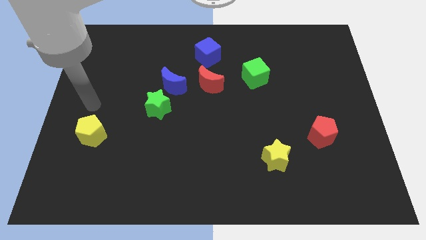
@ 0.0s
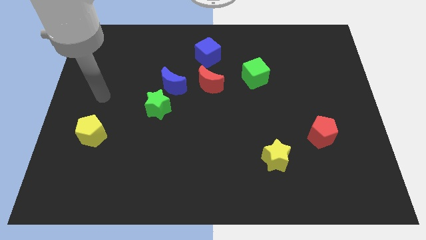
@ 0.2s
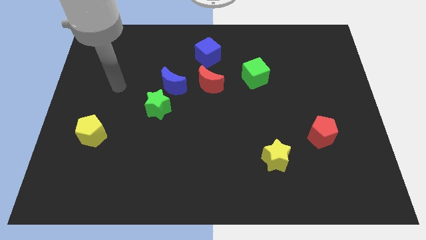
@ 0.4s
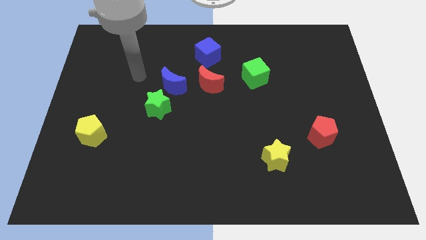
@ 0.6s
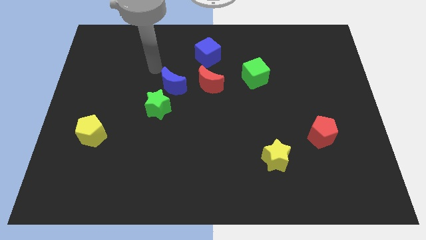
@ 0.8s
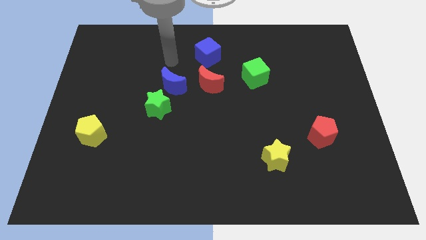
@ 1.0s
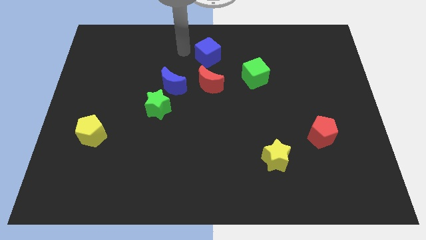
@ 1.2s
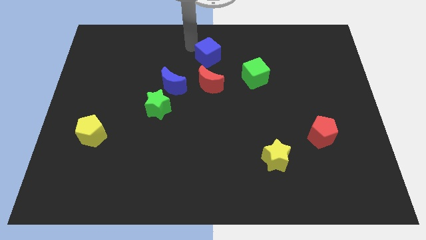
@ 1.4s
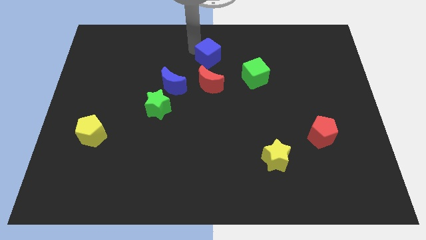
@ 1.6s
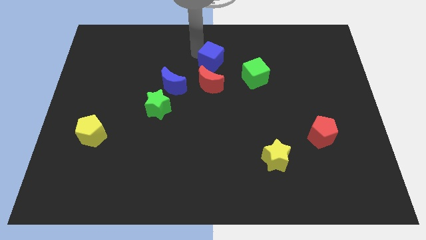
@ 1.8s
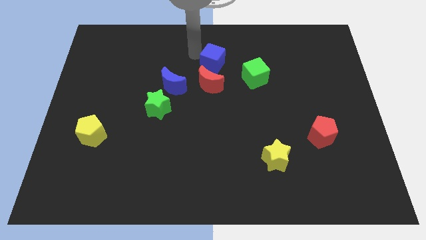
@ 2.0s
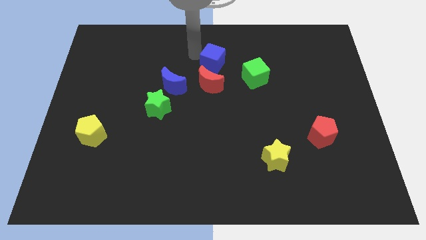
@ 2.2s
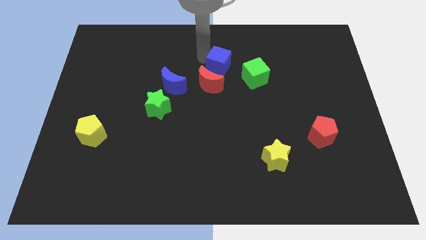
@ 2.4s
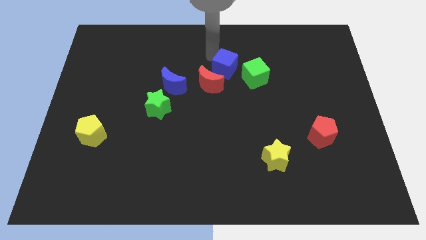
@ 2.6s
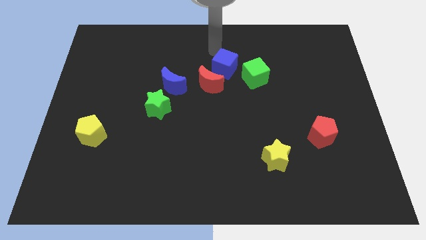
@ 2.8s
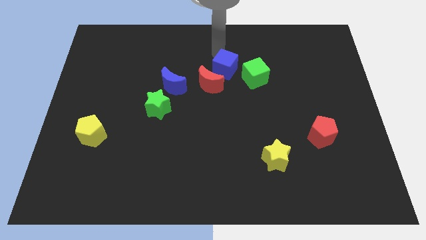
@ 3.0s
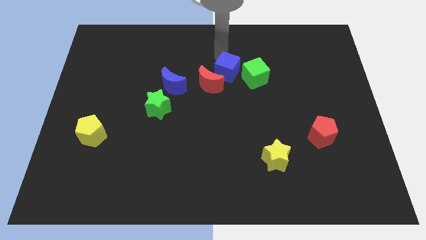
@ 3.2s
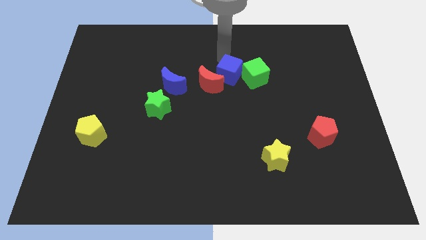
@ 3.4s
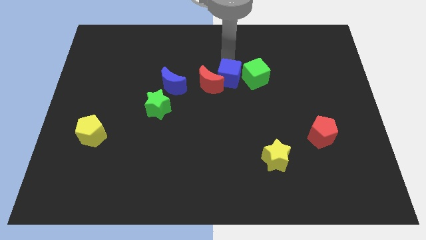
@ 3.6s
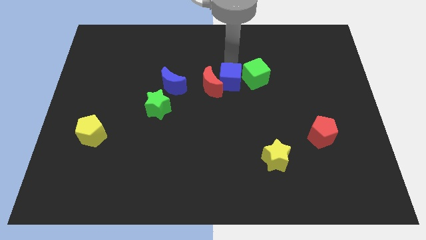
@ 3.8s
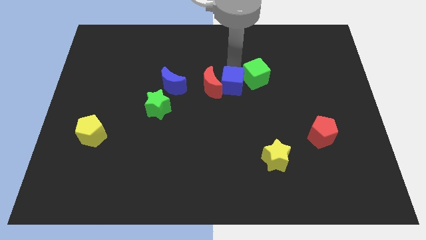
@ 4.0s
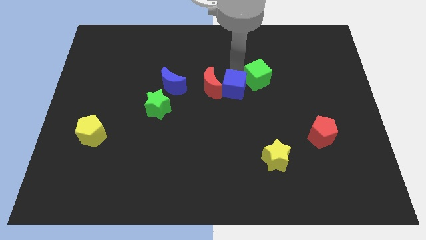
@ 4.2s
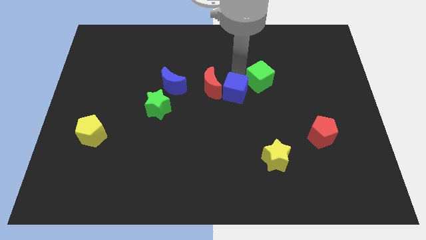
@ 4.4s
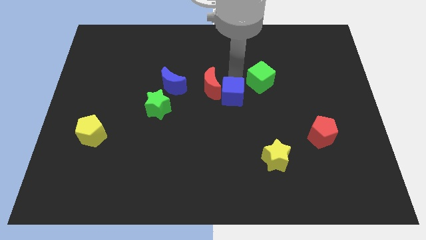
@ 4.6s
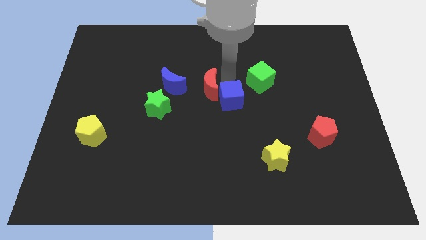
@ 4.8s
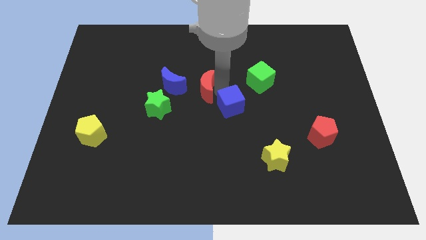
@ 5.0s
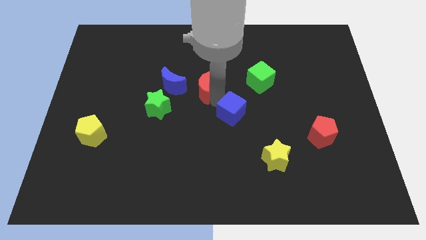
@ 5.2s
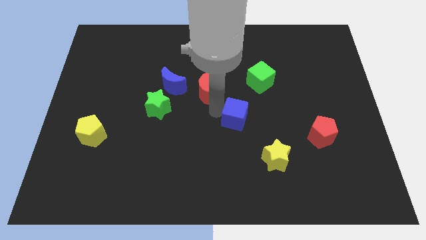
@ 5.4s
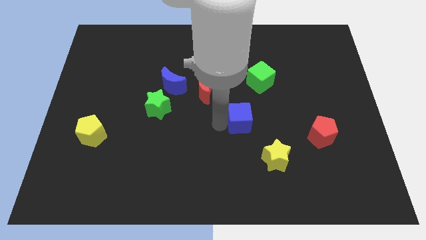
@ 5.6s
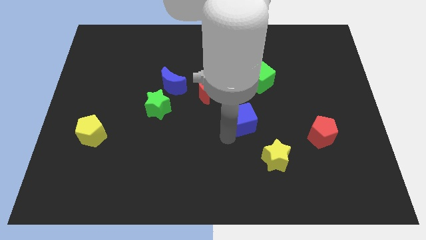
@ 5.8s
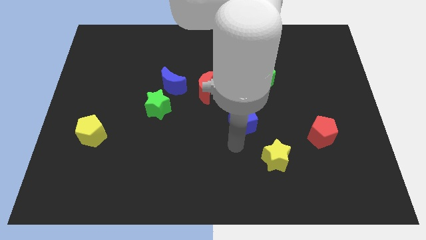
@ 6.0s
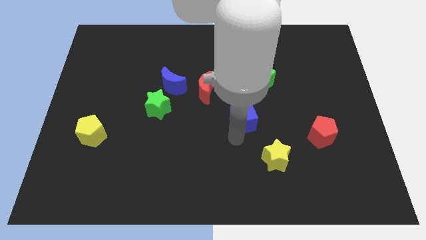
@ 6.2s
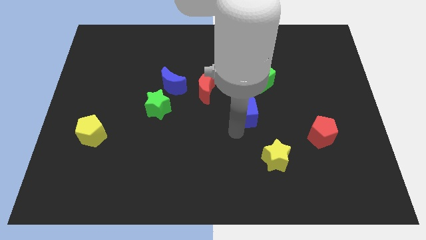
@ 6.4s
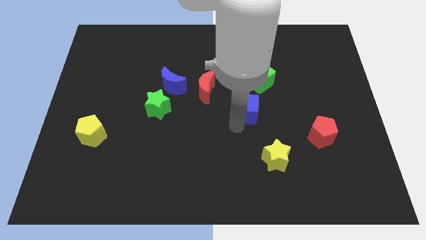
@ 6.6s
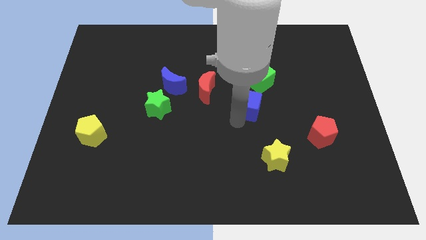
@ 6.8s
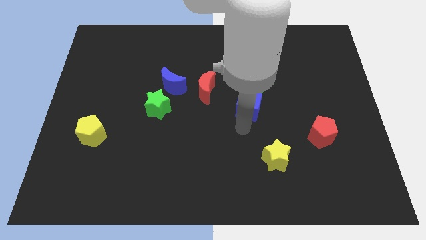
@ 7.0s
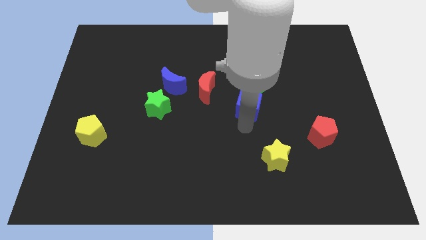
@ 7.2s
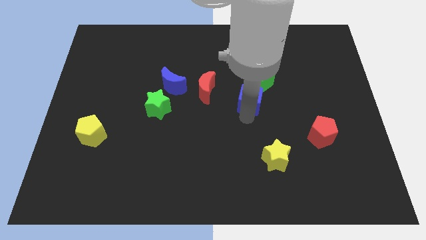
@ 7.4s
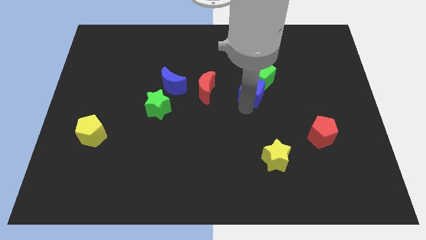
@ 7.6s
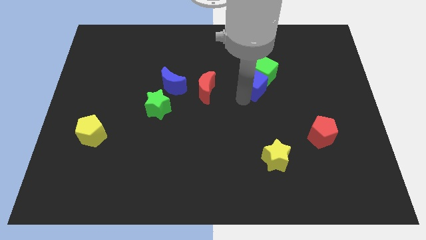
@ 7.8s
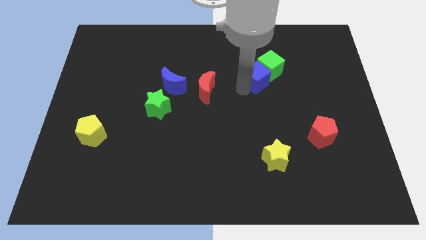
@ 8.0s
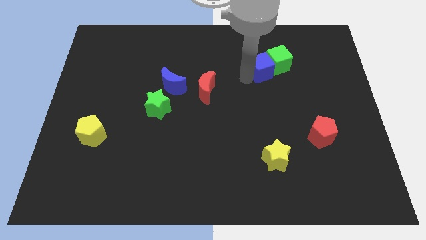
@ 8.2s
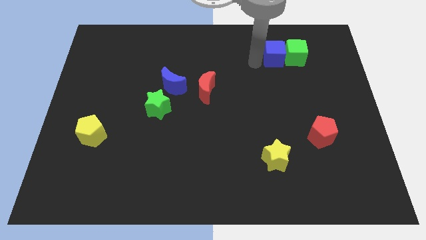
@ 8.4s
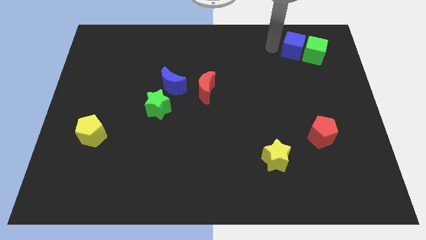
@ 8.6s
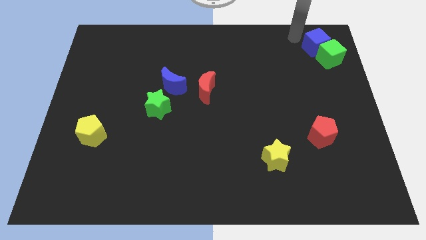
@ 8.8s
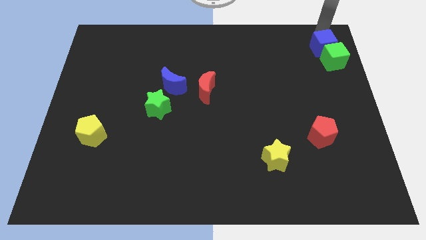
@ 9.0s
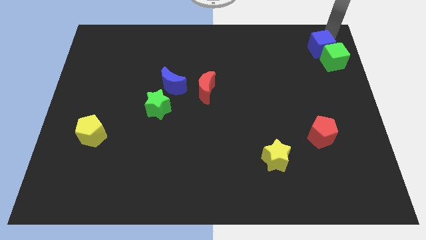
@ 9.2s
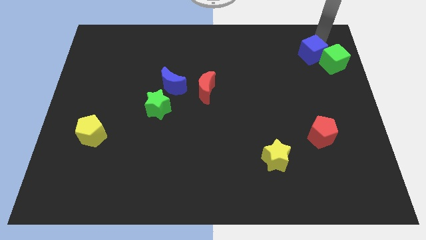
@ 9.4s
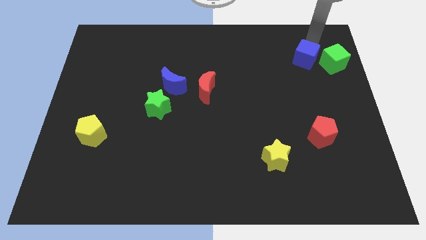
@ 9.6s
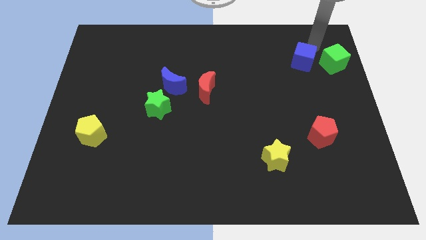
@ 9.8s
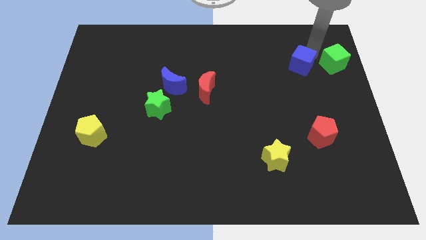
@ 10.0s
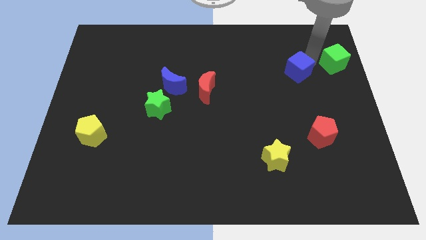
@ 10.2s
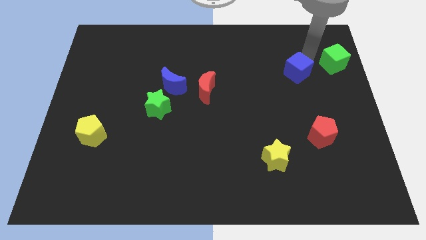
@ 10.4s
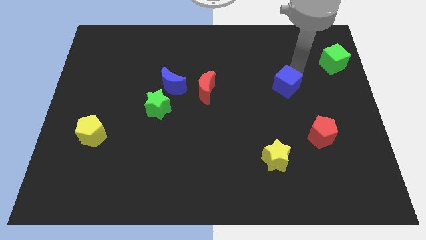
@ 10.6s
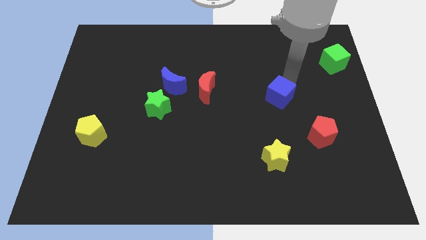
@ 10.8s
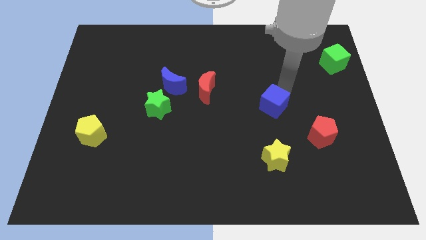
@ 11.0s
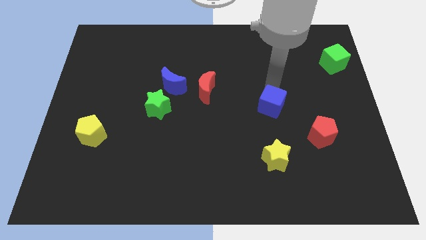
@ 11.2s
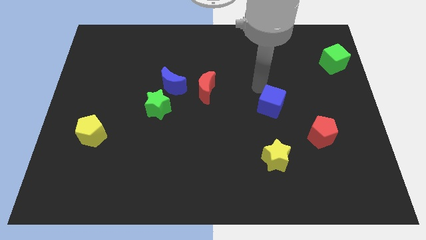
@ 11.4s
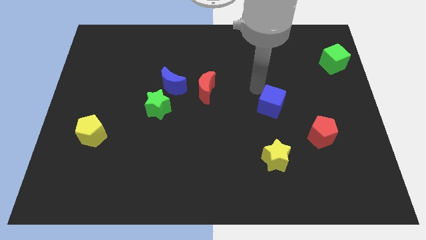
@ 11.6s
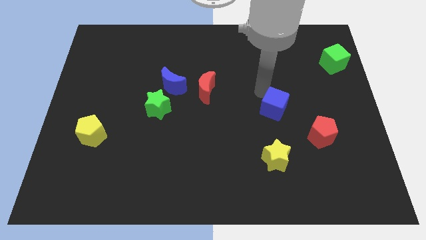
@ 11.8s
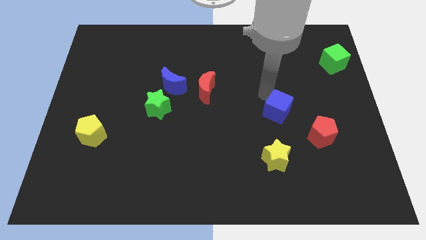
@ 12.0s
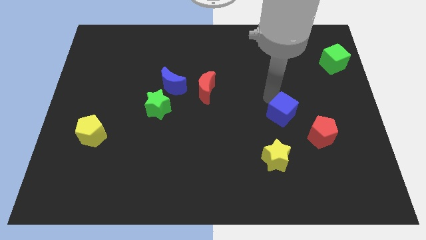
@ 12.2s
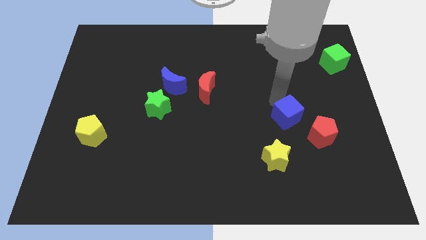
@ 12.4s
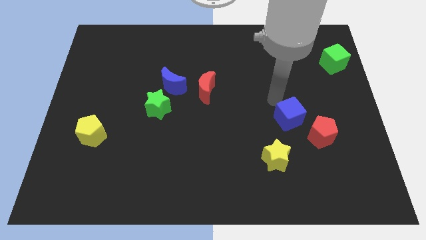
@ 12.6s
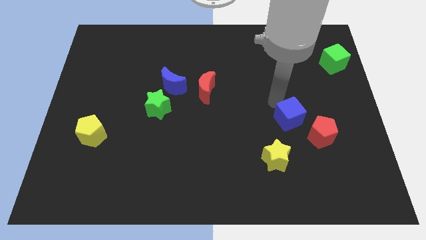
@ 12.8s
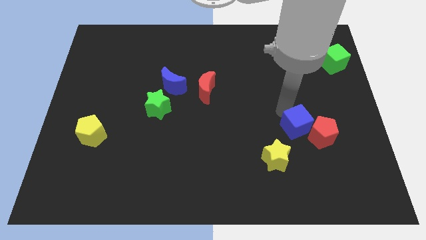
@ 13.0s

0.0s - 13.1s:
slide the blue cube to the red pentagon
